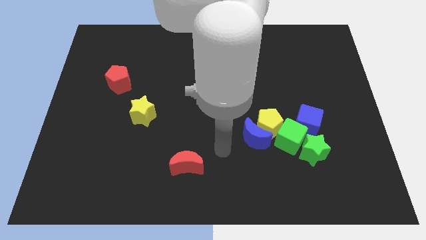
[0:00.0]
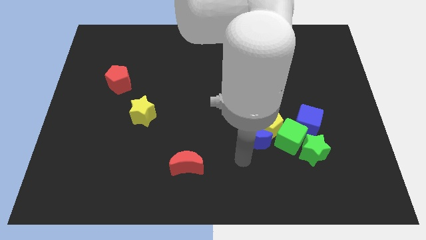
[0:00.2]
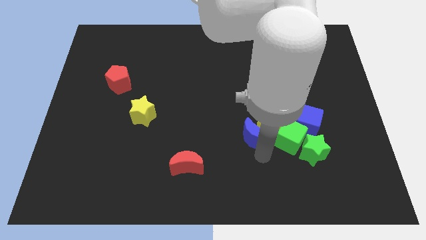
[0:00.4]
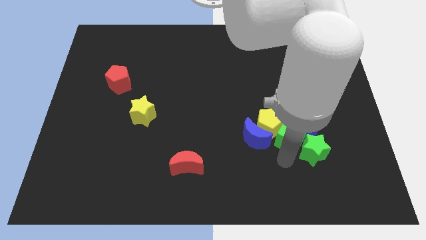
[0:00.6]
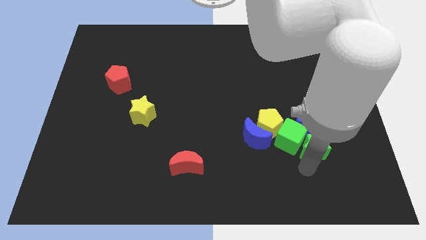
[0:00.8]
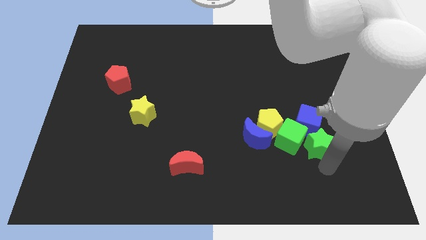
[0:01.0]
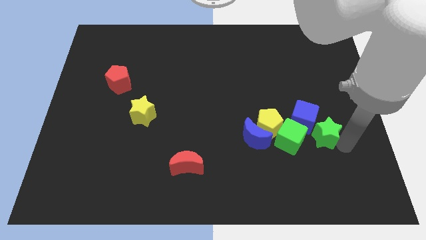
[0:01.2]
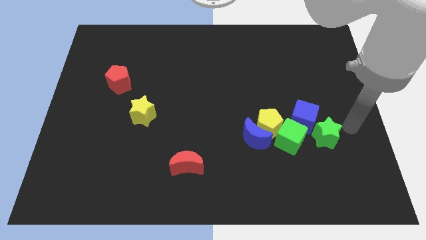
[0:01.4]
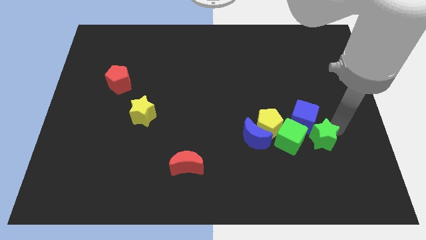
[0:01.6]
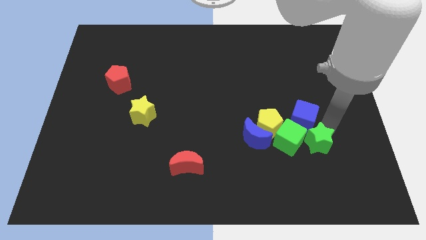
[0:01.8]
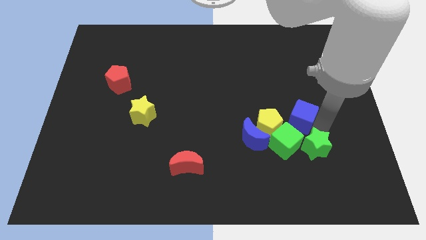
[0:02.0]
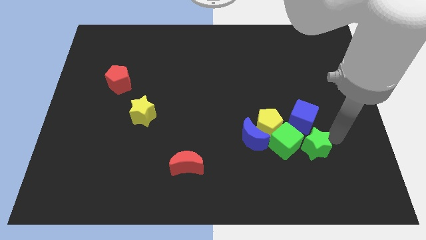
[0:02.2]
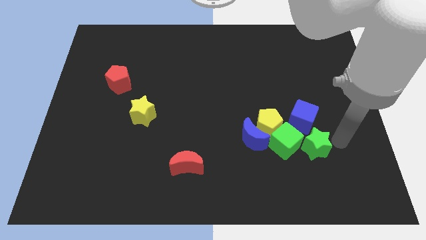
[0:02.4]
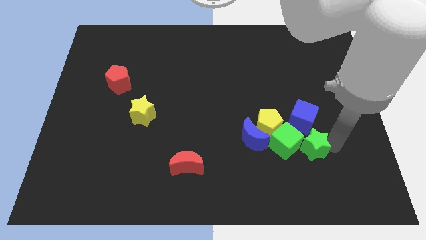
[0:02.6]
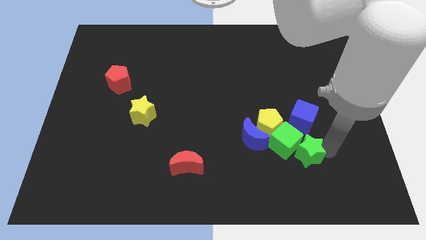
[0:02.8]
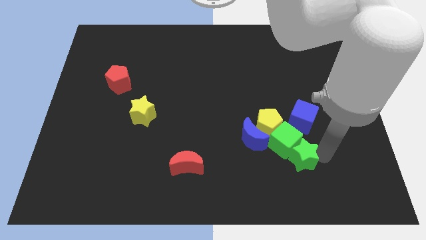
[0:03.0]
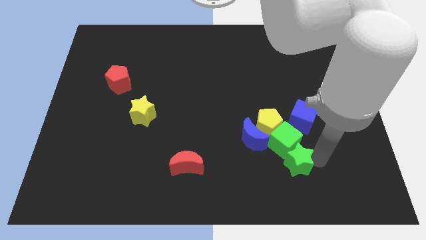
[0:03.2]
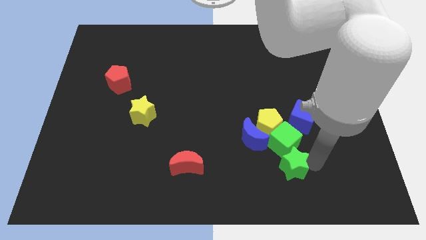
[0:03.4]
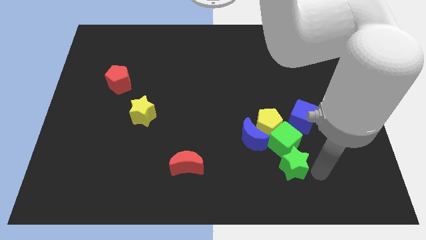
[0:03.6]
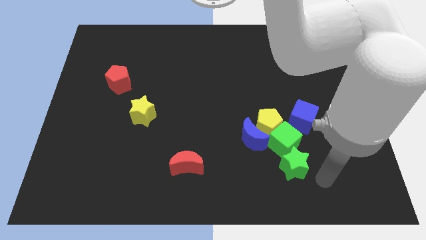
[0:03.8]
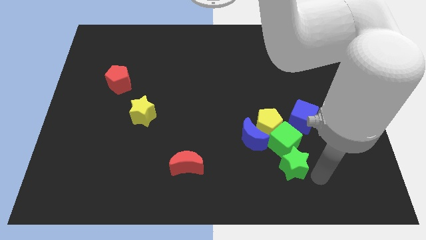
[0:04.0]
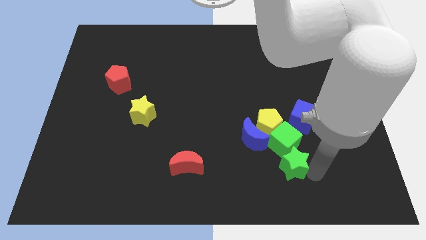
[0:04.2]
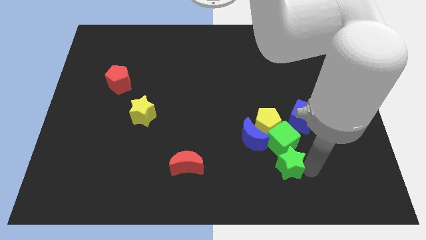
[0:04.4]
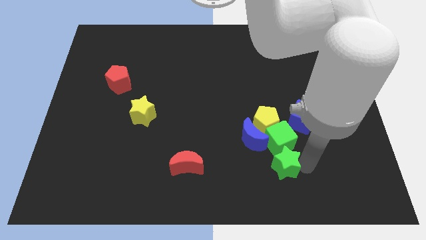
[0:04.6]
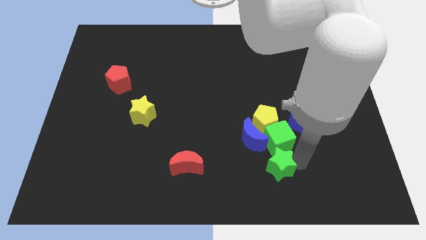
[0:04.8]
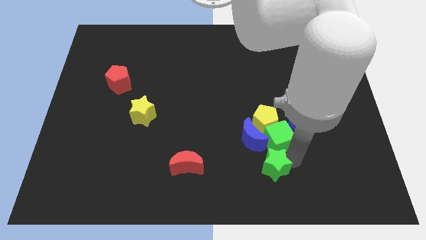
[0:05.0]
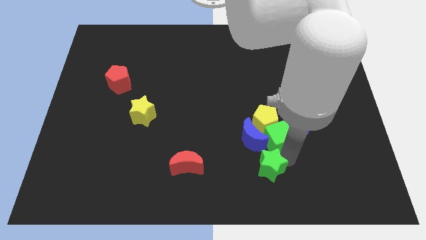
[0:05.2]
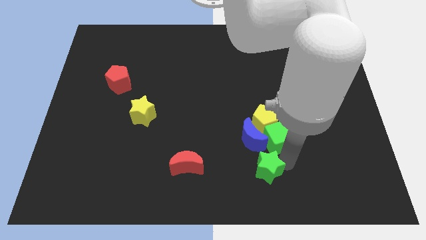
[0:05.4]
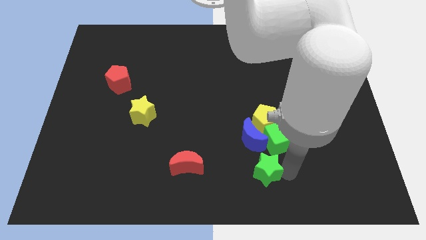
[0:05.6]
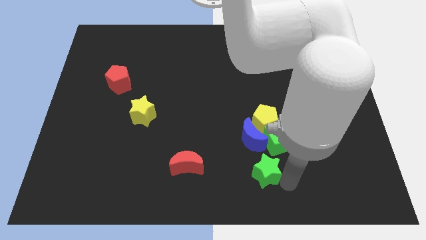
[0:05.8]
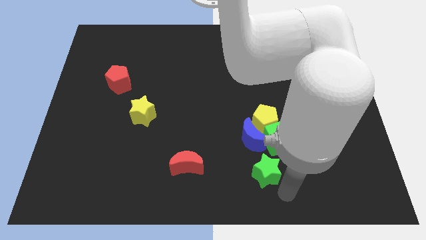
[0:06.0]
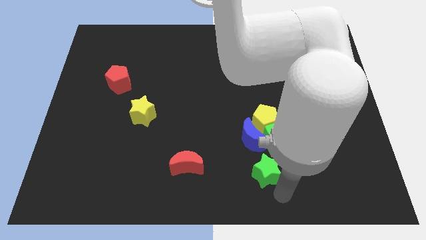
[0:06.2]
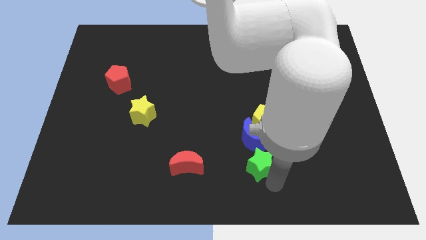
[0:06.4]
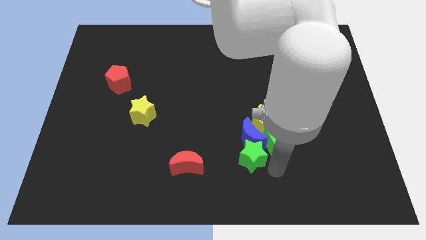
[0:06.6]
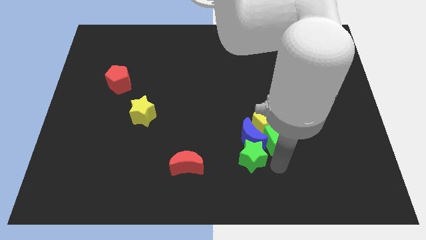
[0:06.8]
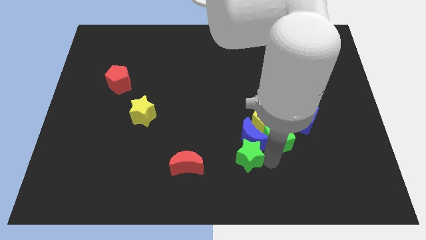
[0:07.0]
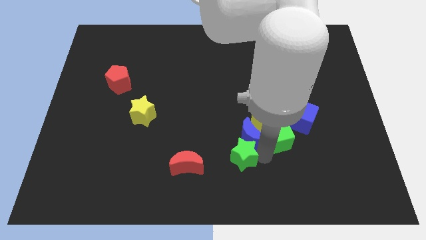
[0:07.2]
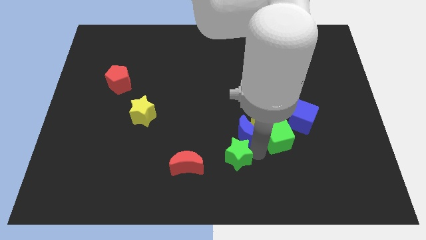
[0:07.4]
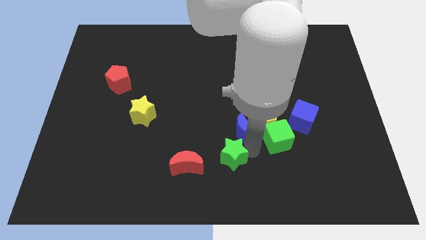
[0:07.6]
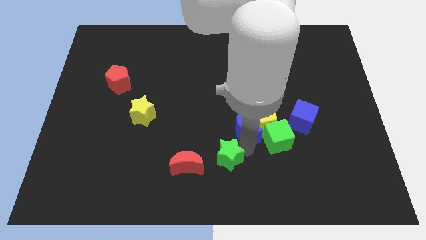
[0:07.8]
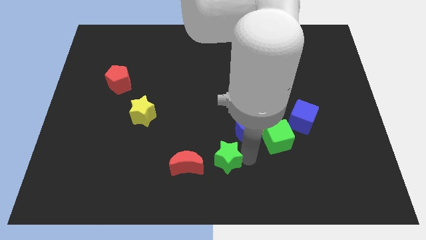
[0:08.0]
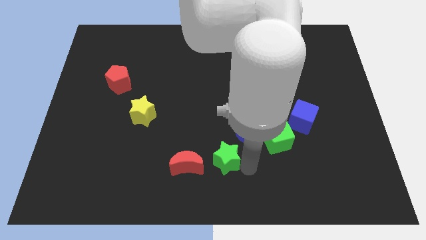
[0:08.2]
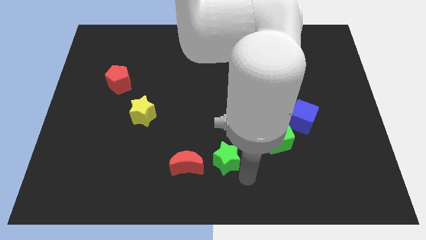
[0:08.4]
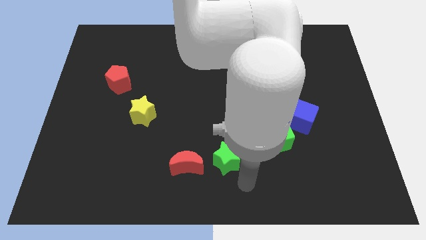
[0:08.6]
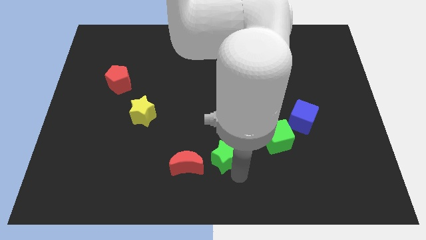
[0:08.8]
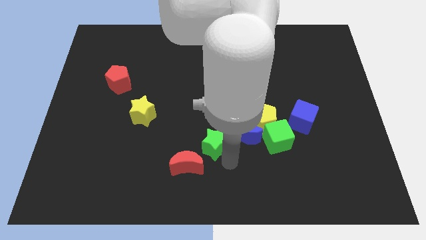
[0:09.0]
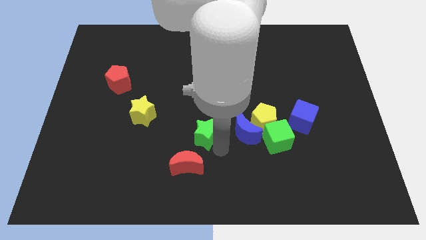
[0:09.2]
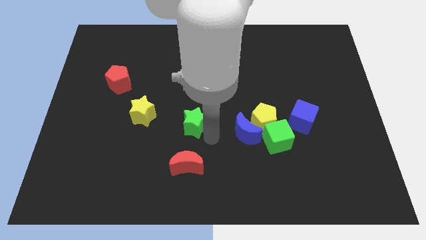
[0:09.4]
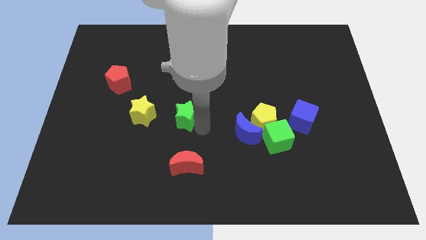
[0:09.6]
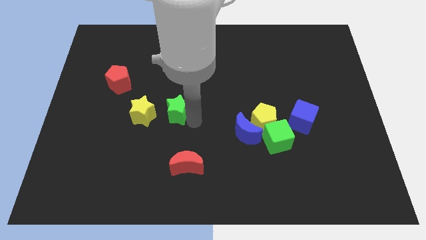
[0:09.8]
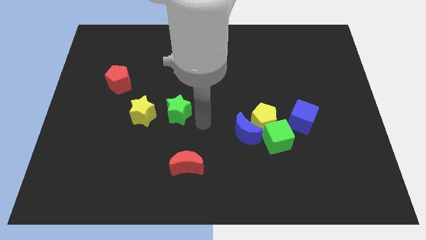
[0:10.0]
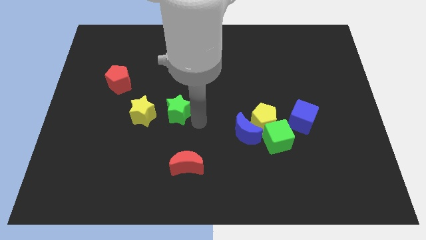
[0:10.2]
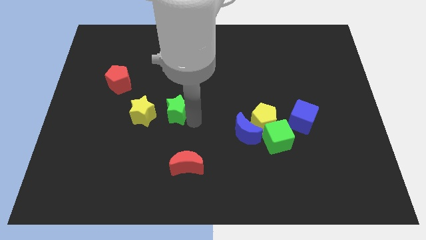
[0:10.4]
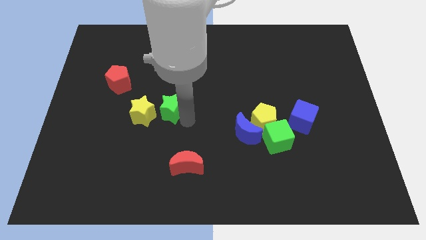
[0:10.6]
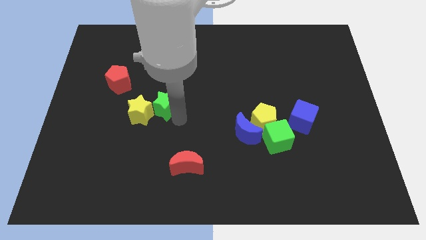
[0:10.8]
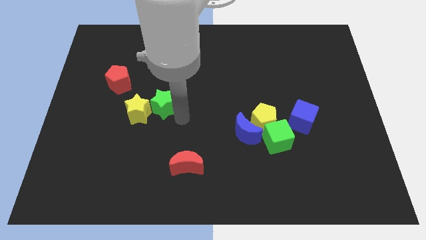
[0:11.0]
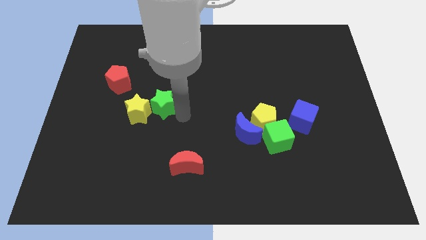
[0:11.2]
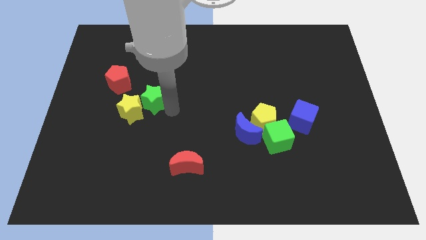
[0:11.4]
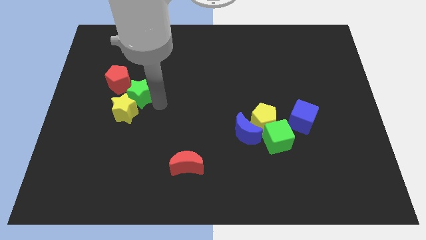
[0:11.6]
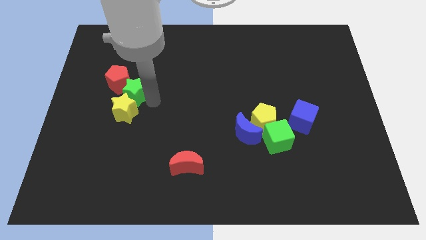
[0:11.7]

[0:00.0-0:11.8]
push the green star close to the red pentagon

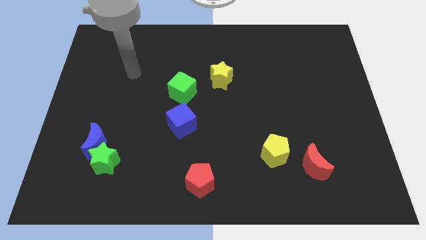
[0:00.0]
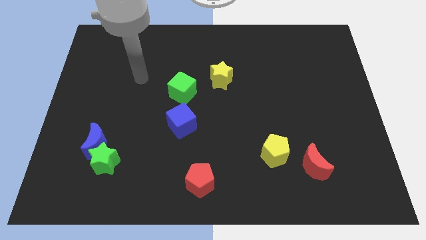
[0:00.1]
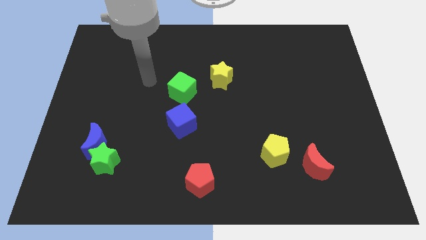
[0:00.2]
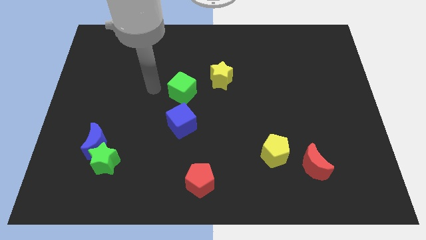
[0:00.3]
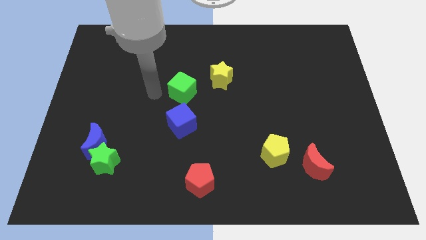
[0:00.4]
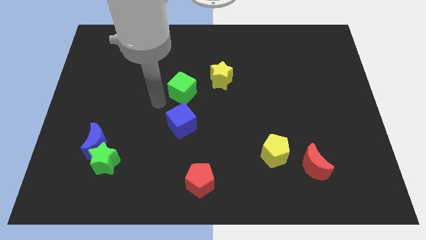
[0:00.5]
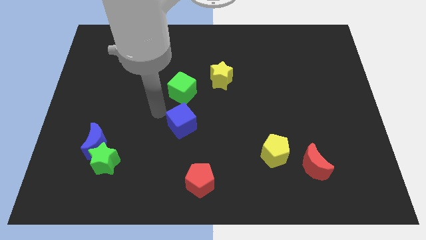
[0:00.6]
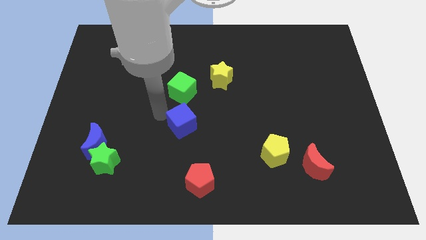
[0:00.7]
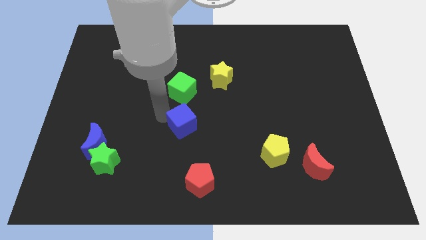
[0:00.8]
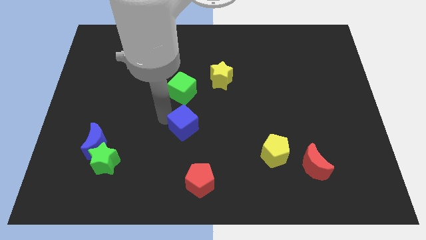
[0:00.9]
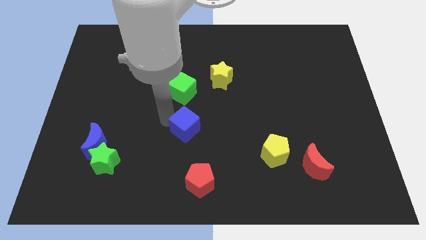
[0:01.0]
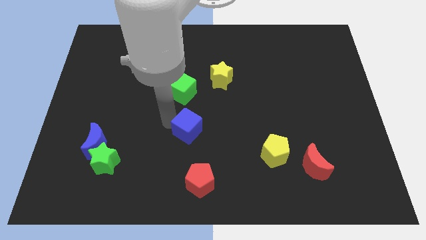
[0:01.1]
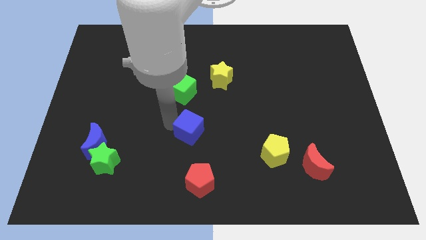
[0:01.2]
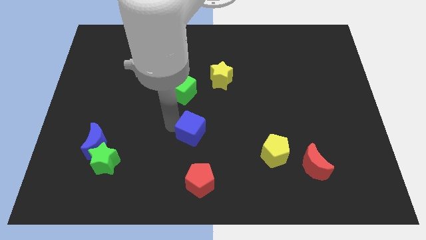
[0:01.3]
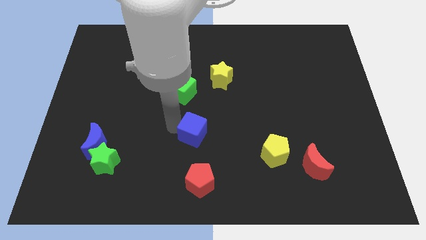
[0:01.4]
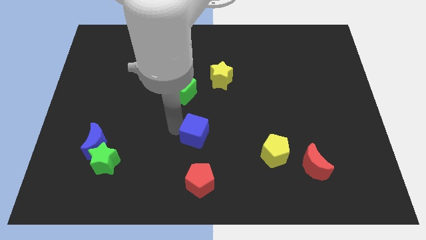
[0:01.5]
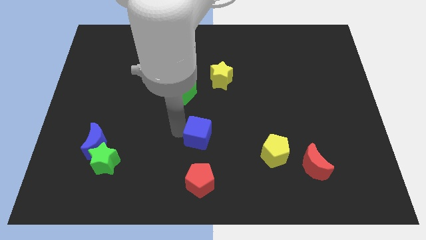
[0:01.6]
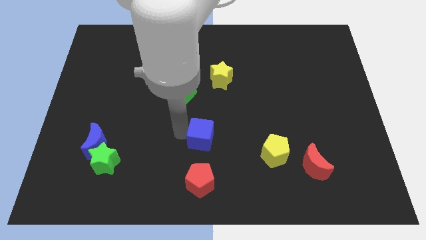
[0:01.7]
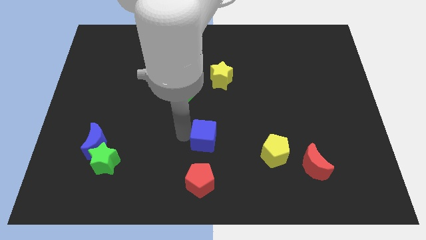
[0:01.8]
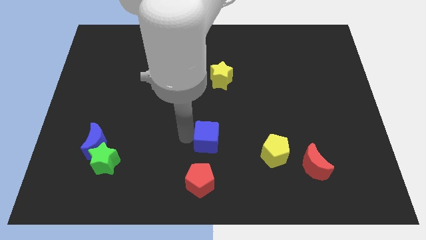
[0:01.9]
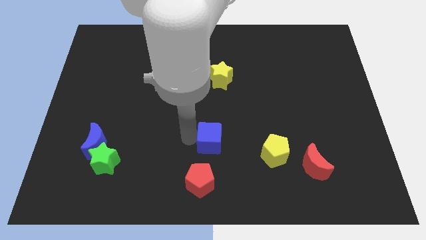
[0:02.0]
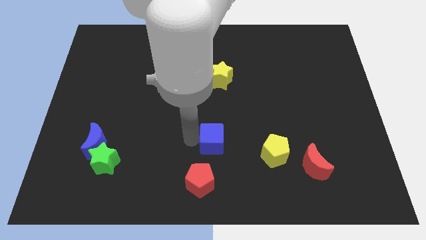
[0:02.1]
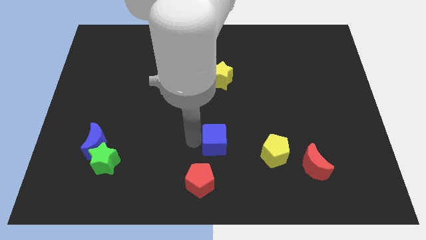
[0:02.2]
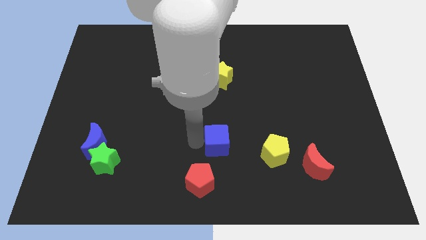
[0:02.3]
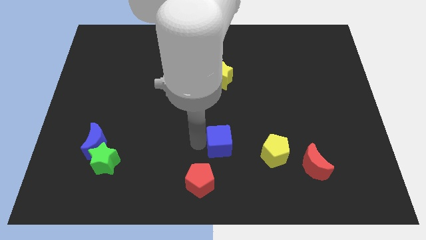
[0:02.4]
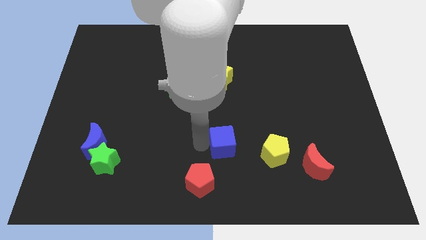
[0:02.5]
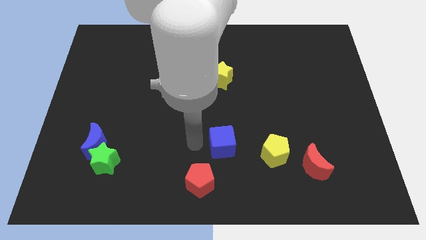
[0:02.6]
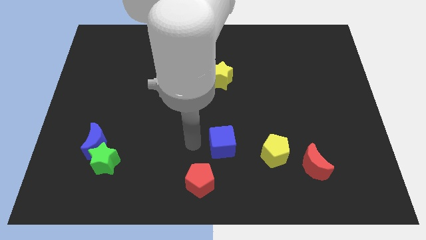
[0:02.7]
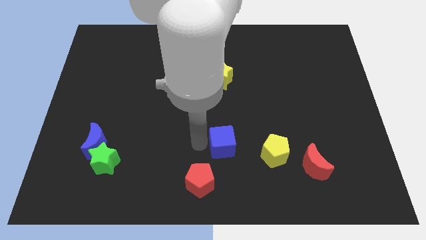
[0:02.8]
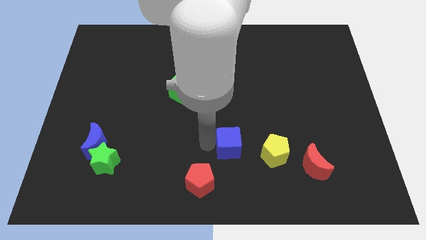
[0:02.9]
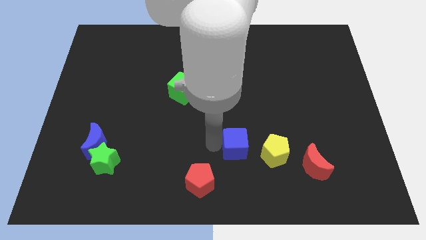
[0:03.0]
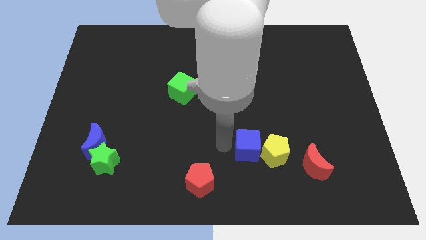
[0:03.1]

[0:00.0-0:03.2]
slide the blue cube next to the yellow pentagon
